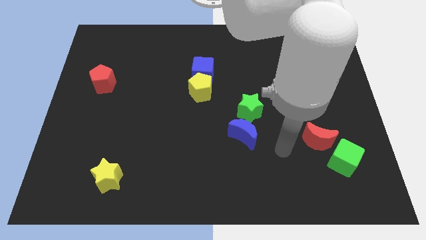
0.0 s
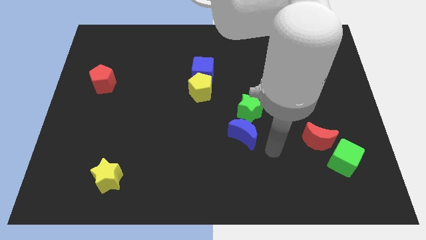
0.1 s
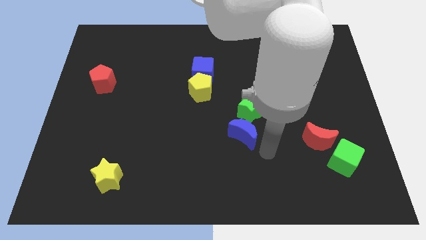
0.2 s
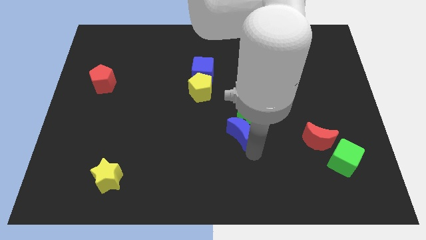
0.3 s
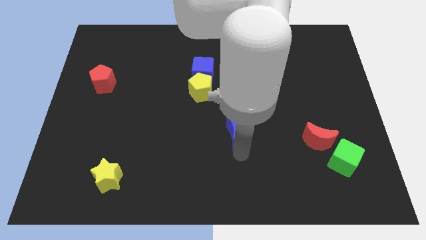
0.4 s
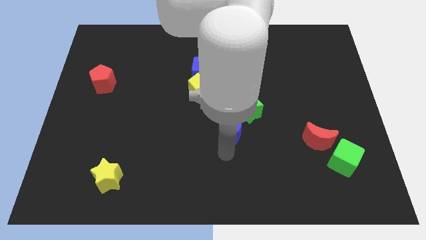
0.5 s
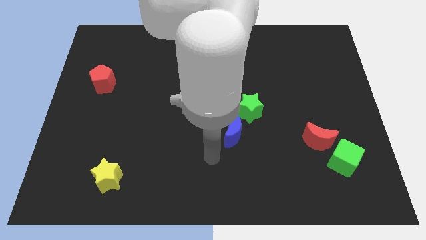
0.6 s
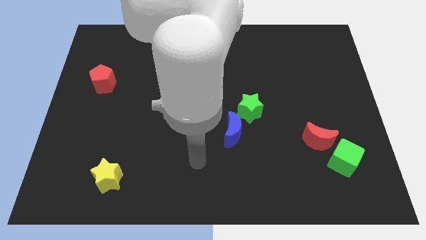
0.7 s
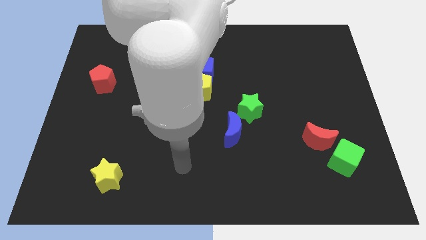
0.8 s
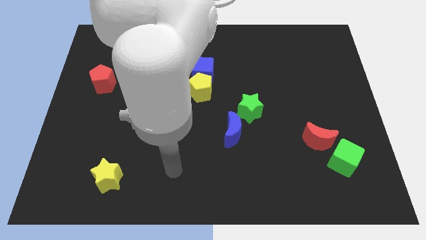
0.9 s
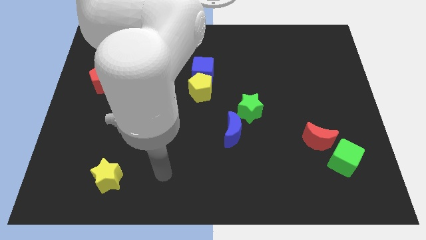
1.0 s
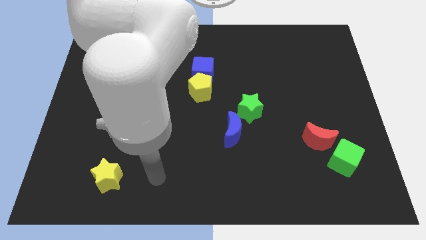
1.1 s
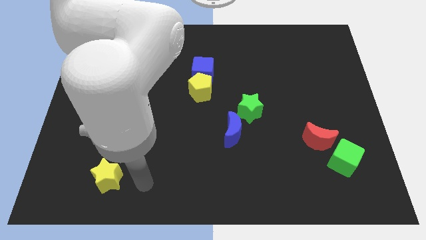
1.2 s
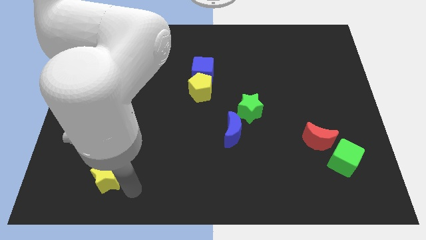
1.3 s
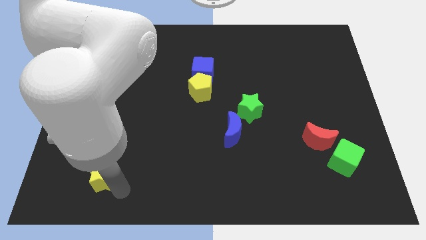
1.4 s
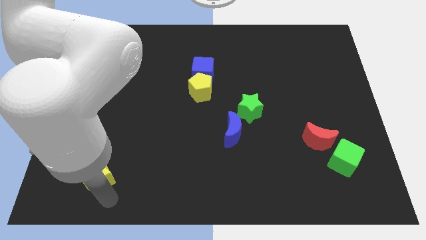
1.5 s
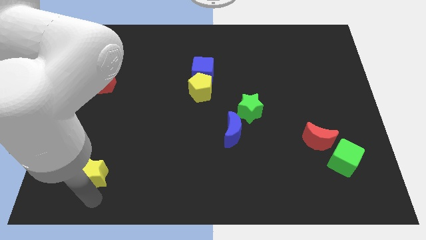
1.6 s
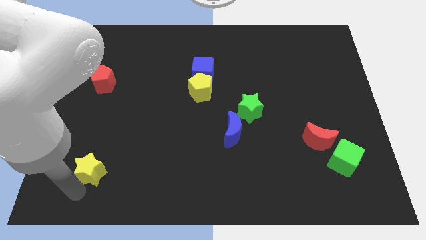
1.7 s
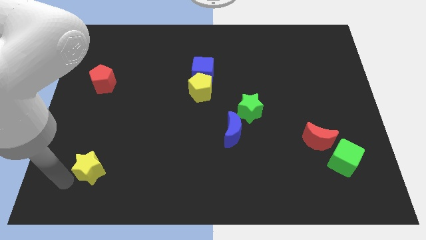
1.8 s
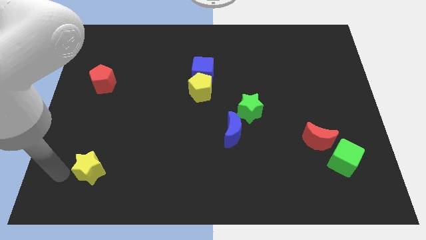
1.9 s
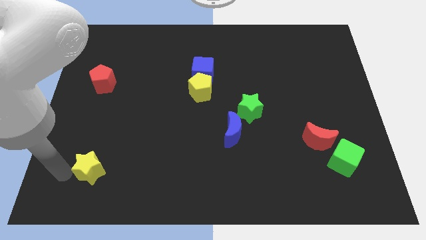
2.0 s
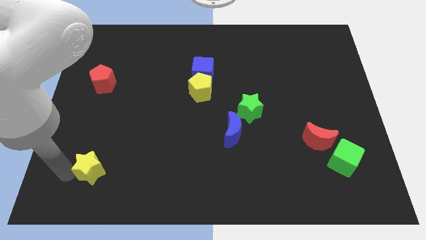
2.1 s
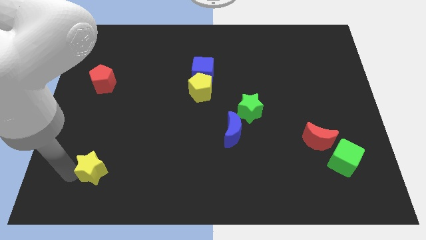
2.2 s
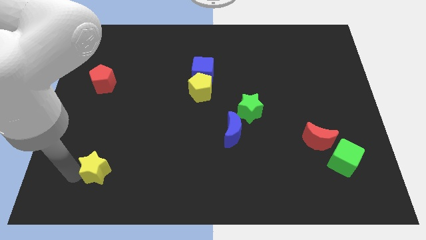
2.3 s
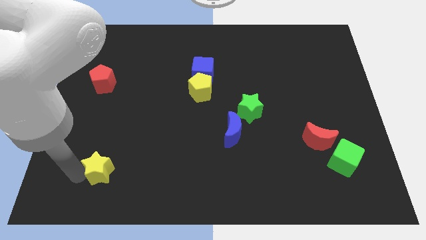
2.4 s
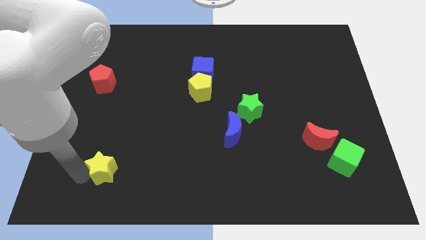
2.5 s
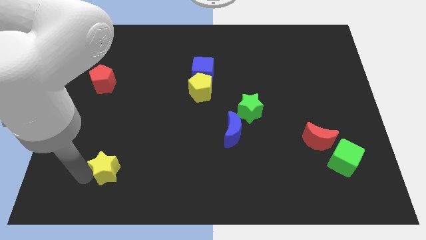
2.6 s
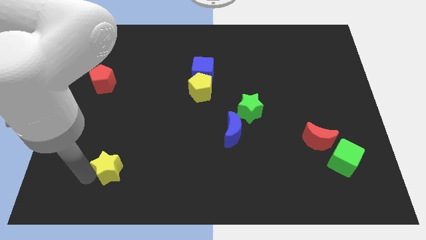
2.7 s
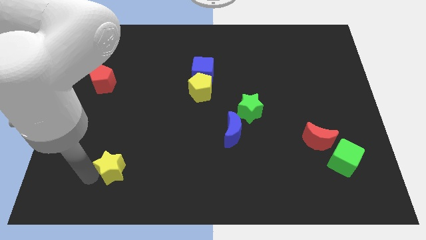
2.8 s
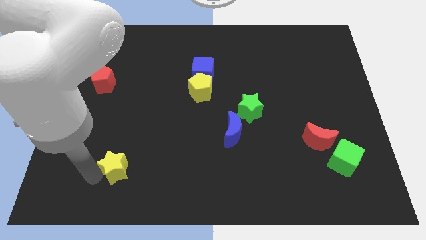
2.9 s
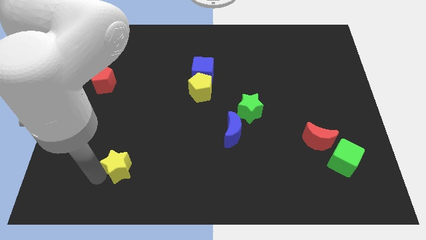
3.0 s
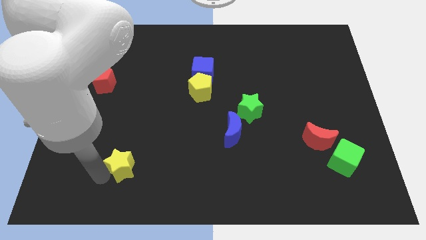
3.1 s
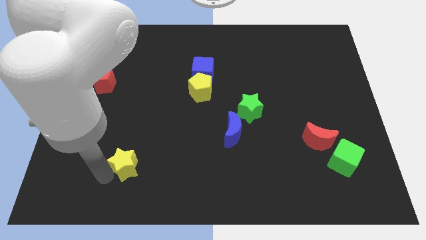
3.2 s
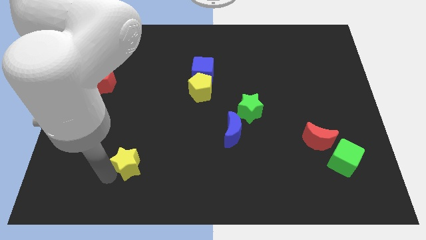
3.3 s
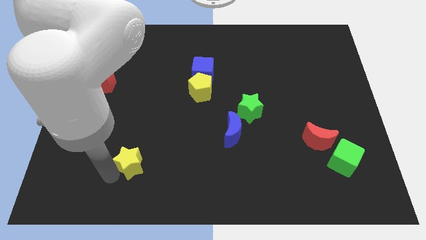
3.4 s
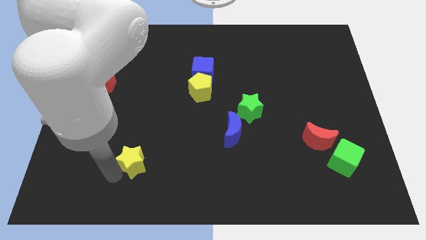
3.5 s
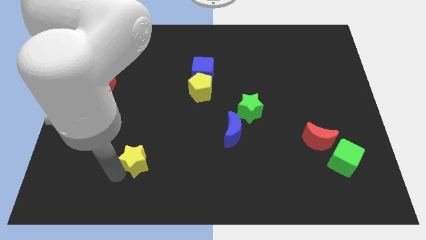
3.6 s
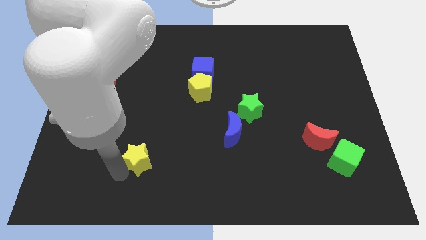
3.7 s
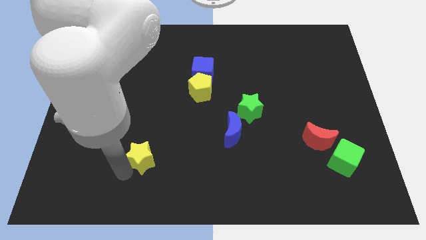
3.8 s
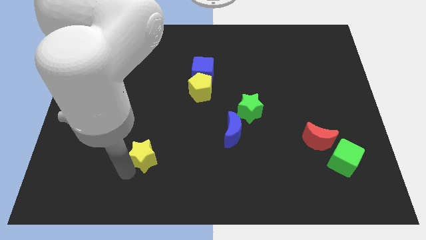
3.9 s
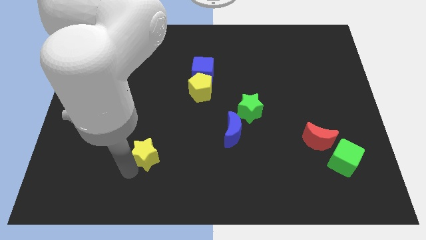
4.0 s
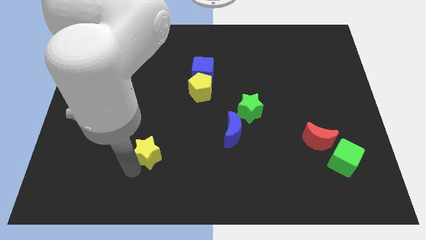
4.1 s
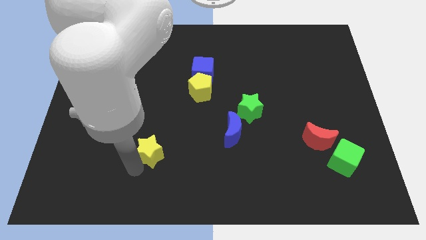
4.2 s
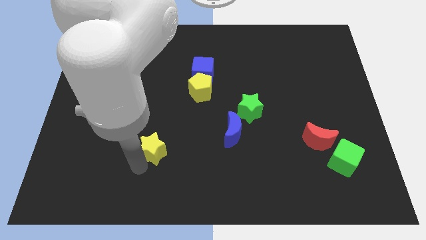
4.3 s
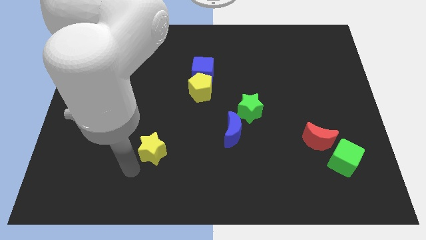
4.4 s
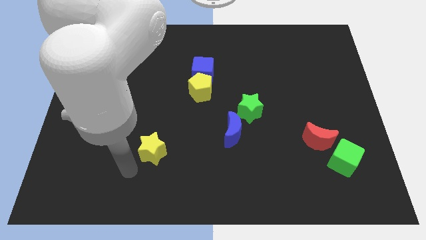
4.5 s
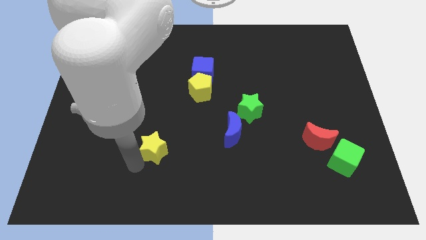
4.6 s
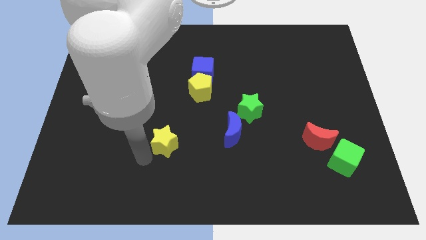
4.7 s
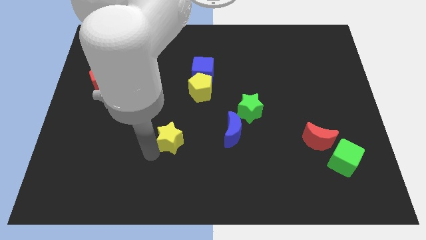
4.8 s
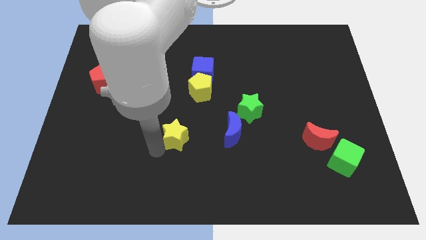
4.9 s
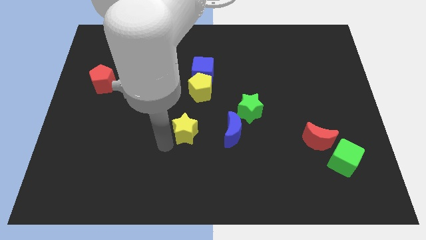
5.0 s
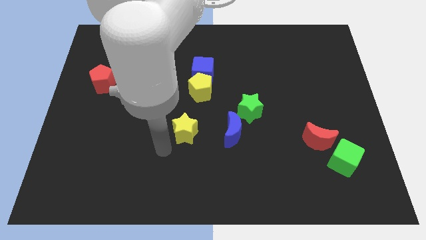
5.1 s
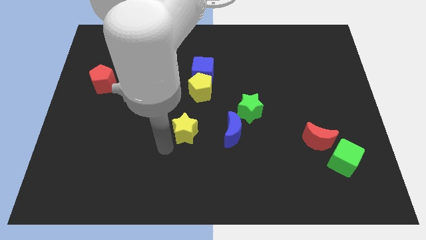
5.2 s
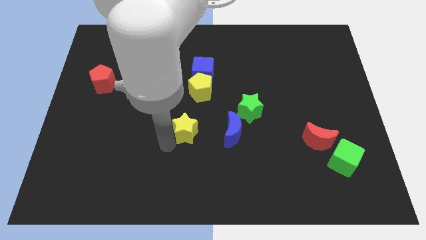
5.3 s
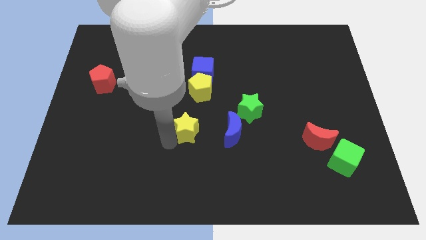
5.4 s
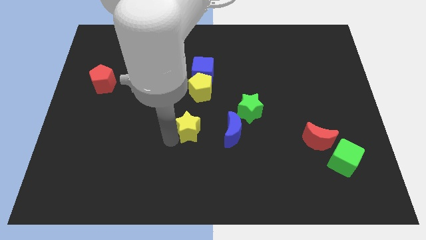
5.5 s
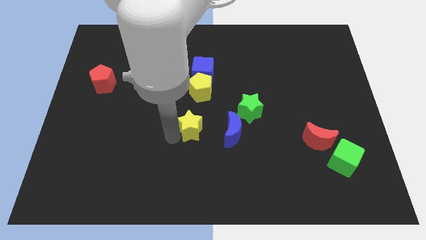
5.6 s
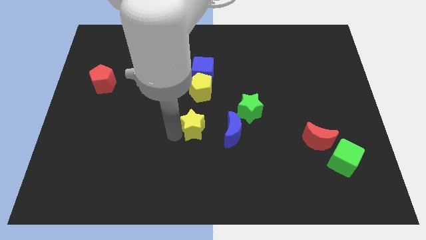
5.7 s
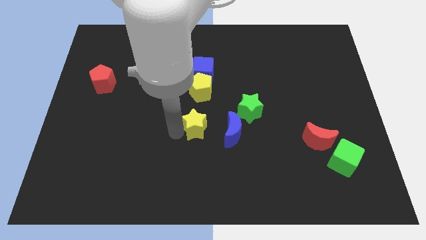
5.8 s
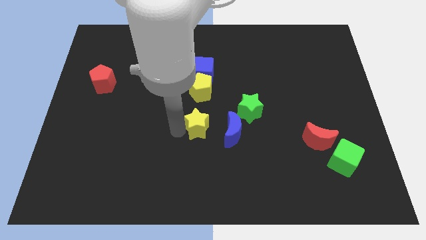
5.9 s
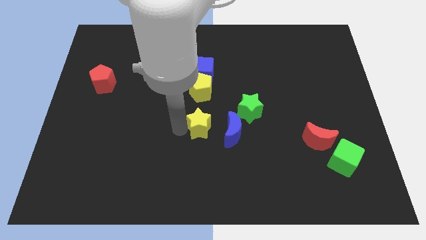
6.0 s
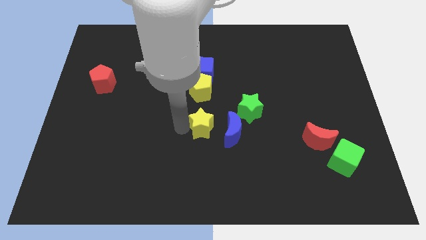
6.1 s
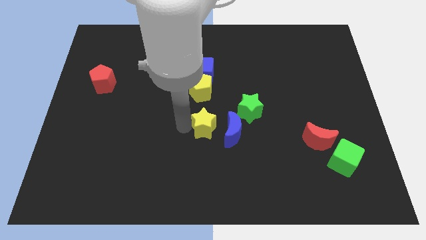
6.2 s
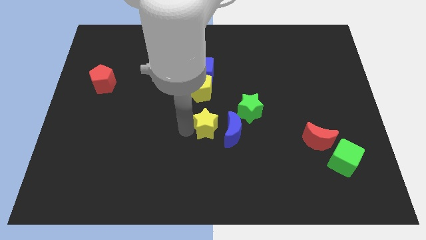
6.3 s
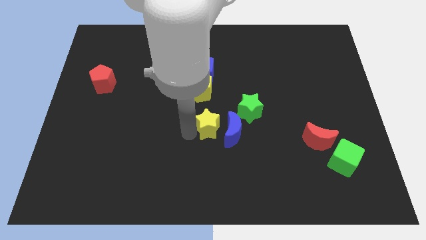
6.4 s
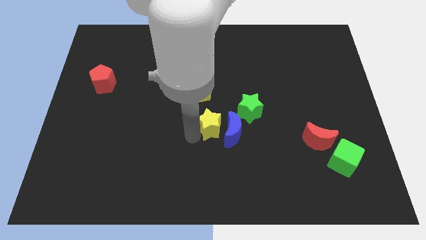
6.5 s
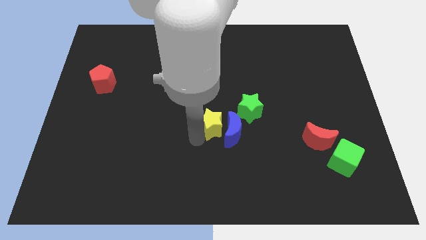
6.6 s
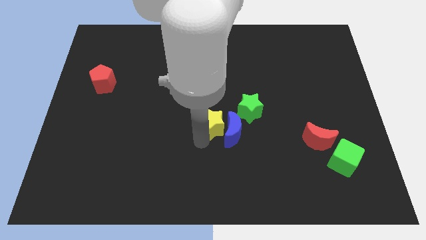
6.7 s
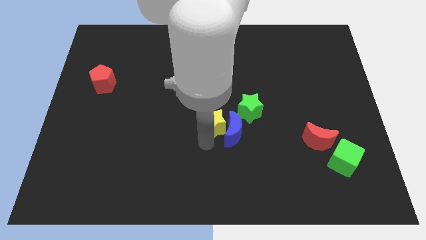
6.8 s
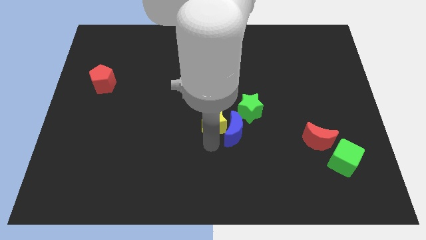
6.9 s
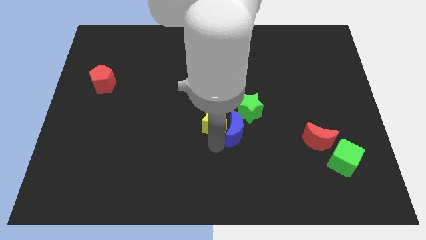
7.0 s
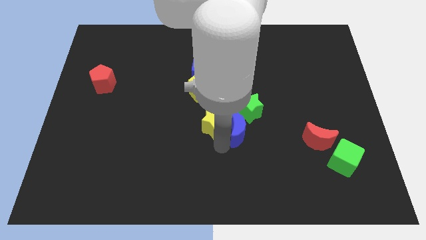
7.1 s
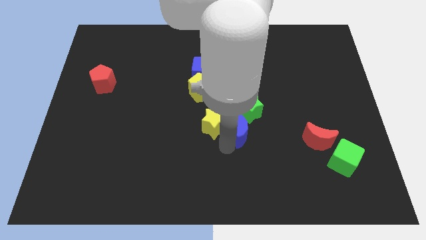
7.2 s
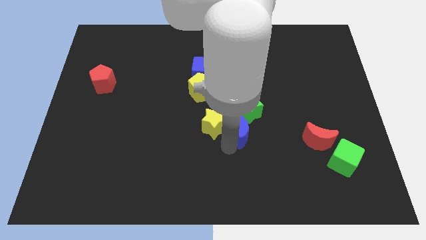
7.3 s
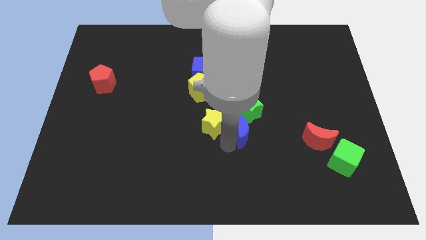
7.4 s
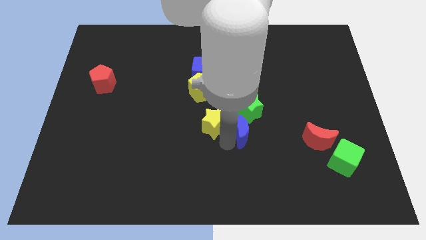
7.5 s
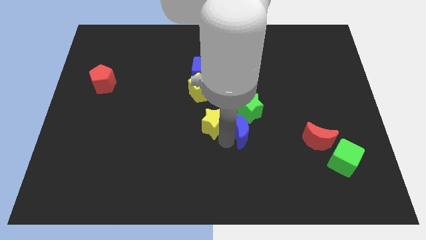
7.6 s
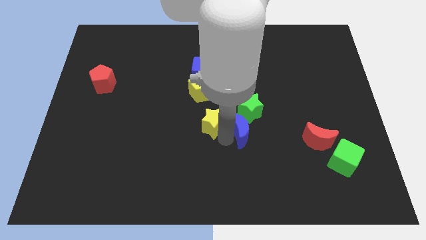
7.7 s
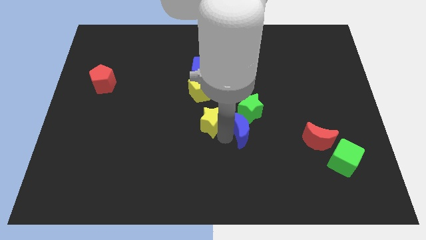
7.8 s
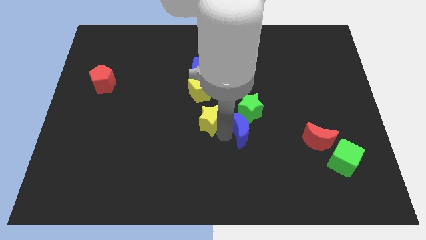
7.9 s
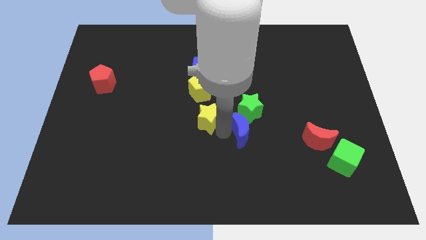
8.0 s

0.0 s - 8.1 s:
put the yellow star to the bottom right side of the yellow pentagon

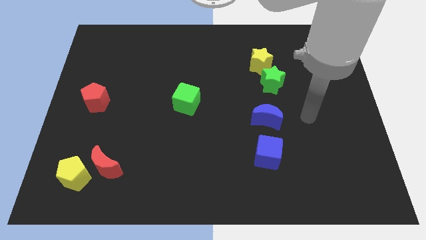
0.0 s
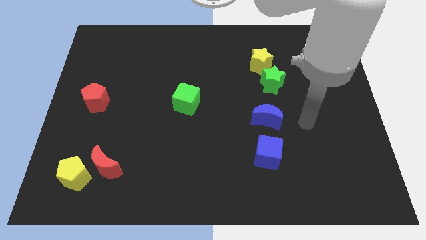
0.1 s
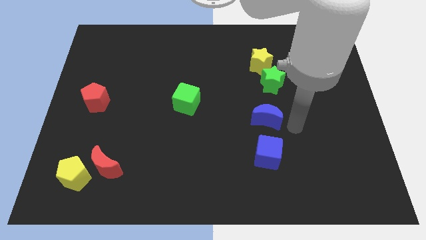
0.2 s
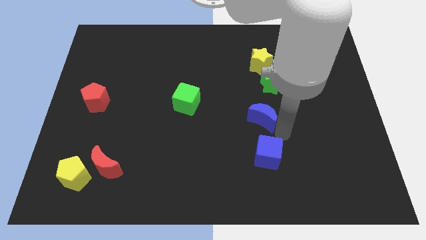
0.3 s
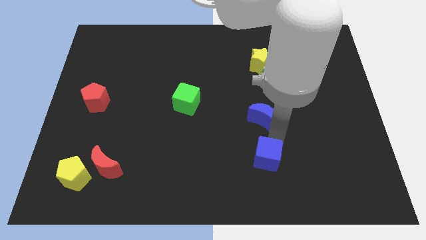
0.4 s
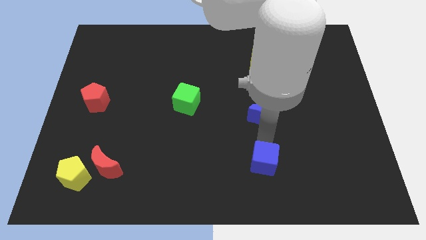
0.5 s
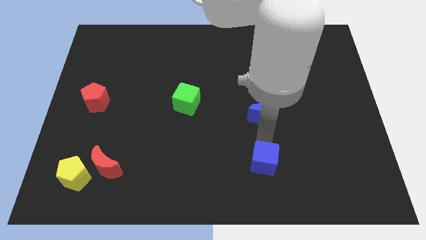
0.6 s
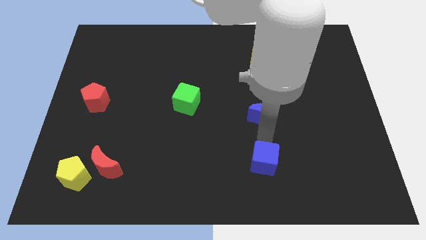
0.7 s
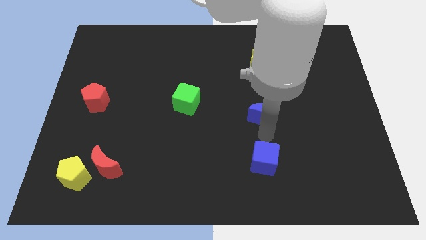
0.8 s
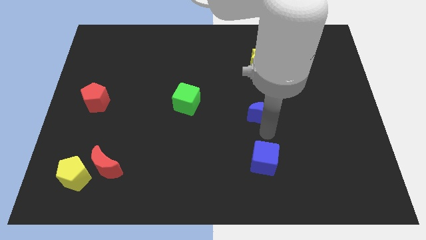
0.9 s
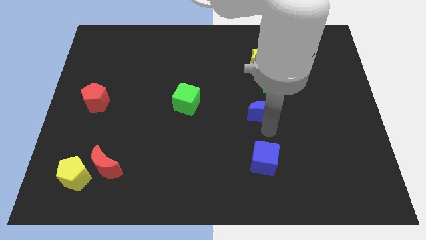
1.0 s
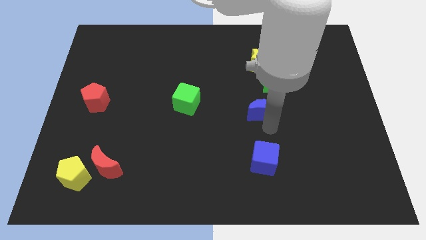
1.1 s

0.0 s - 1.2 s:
put the blue moon below the yellow star
